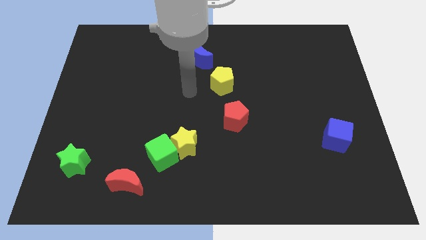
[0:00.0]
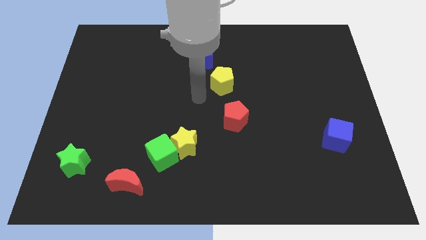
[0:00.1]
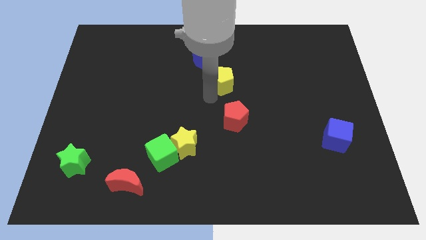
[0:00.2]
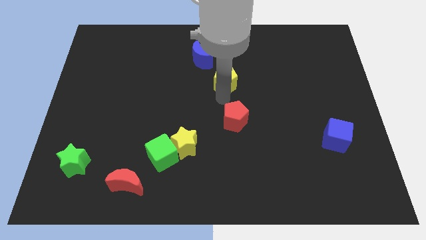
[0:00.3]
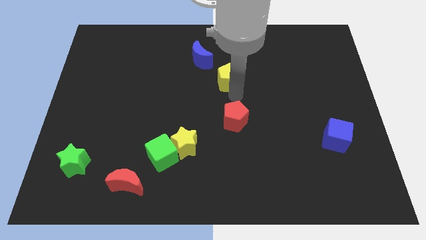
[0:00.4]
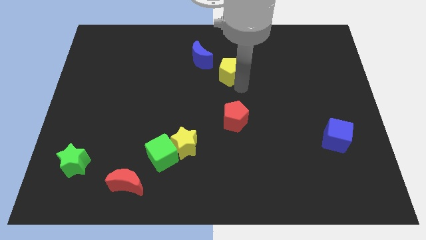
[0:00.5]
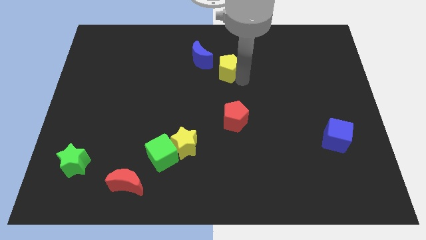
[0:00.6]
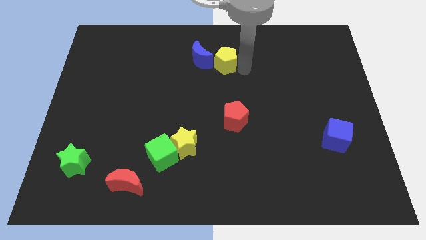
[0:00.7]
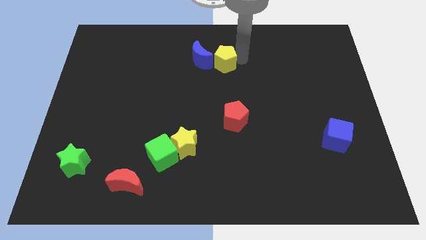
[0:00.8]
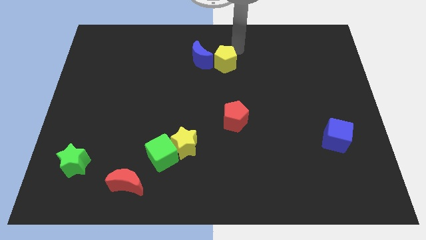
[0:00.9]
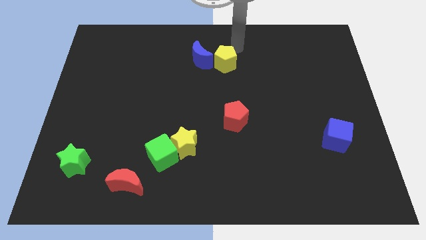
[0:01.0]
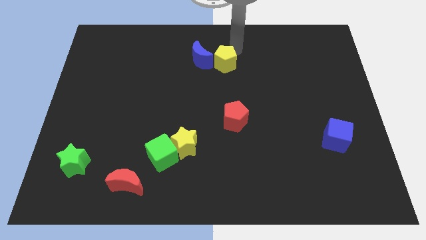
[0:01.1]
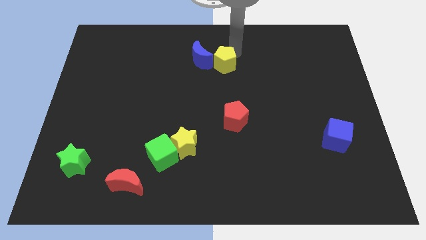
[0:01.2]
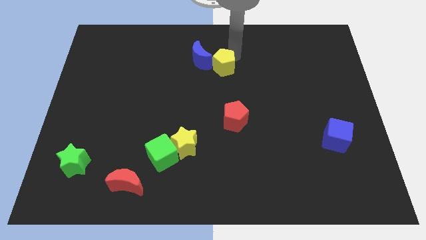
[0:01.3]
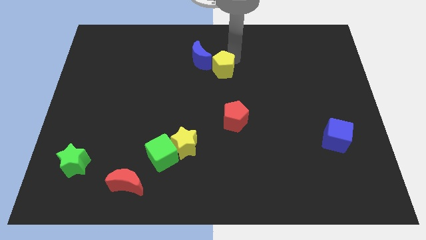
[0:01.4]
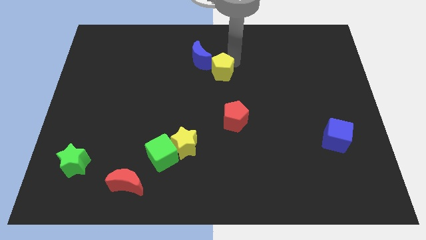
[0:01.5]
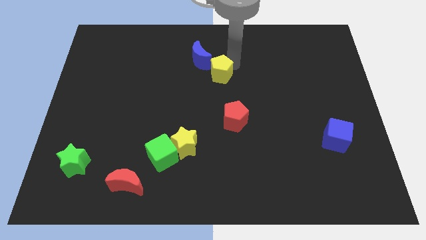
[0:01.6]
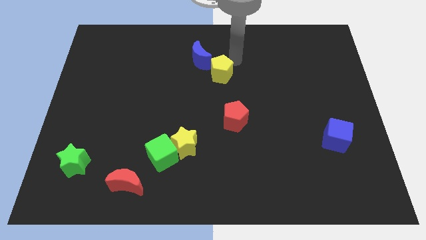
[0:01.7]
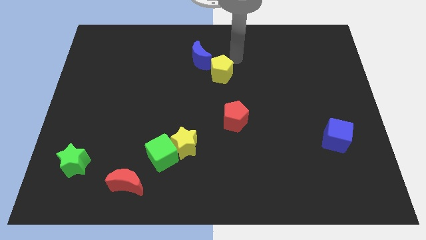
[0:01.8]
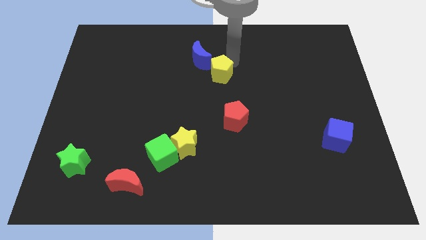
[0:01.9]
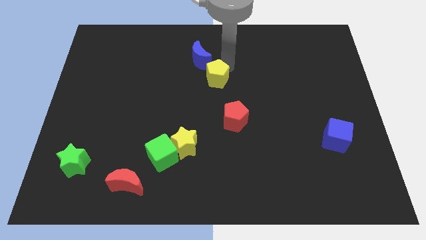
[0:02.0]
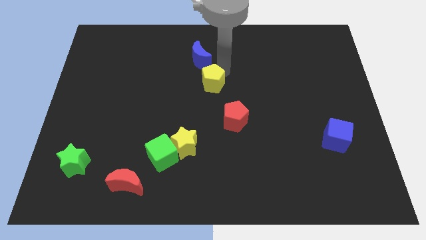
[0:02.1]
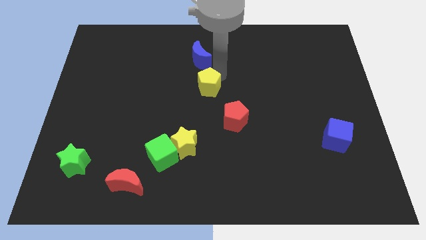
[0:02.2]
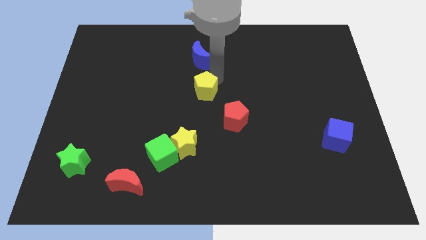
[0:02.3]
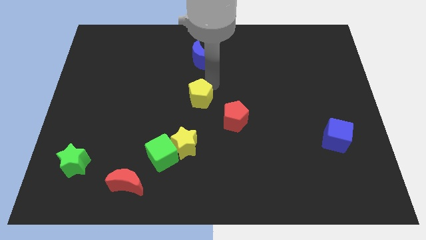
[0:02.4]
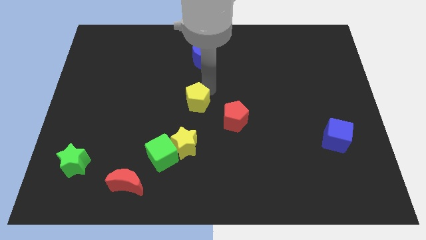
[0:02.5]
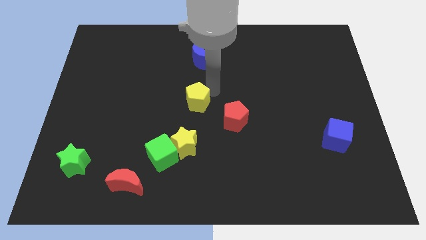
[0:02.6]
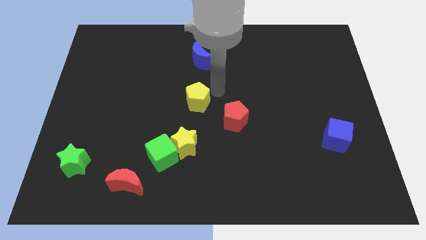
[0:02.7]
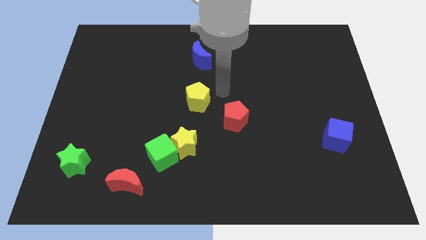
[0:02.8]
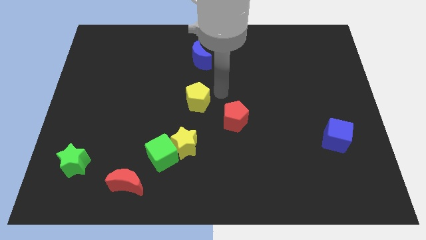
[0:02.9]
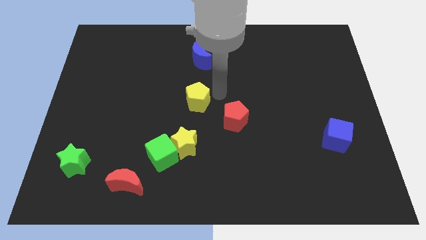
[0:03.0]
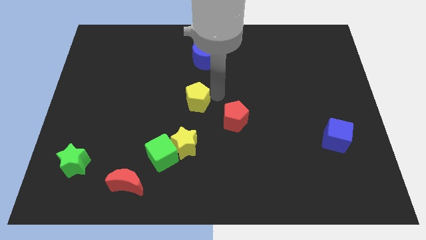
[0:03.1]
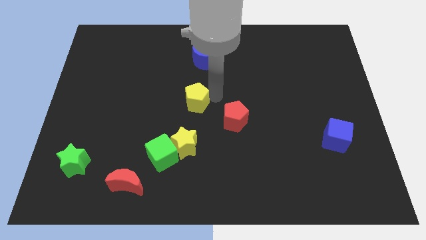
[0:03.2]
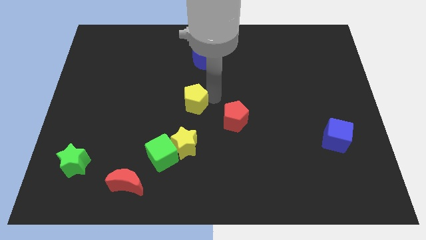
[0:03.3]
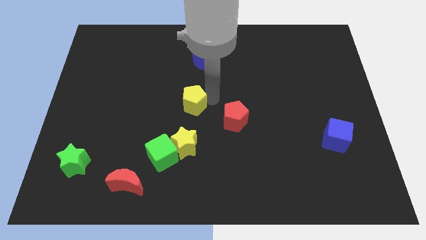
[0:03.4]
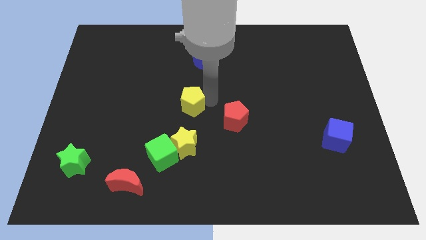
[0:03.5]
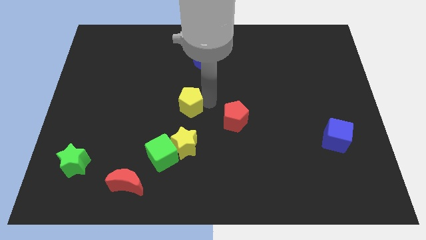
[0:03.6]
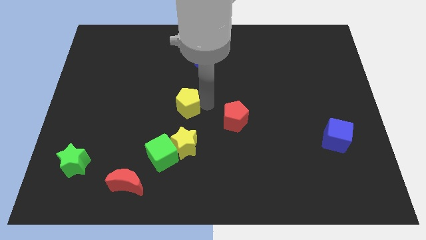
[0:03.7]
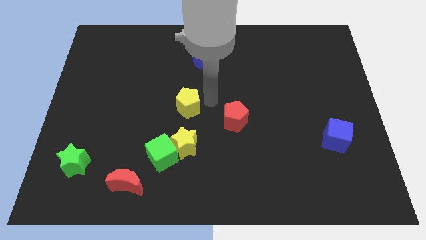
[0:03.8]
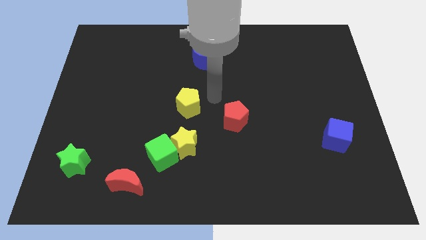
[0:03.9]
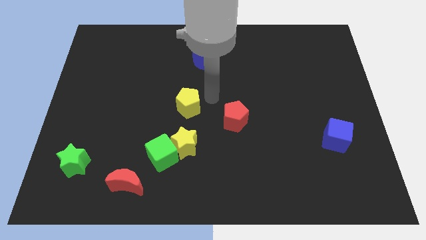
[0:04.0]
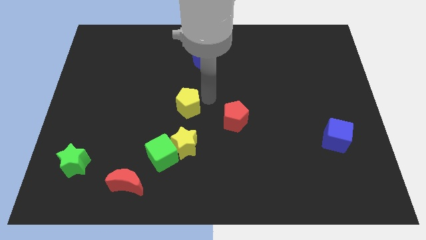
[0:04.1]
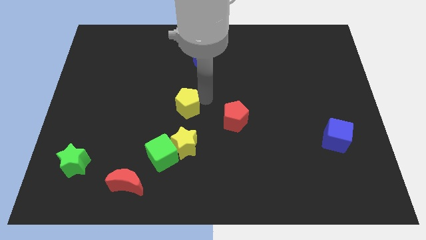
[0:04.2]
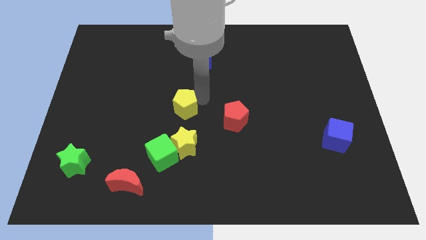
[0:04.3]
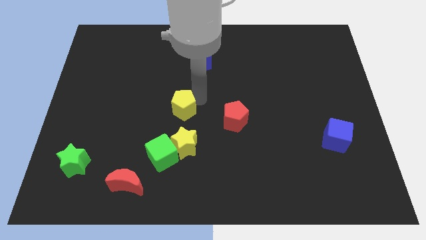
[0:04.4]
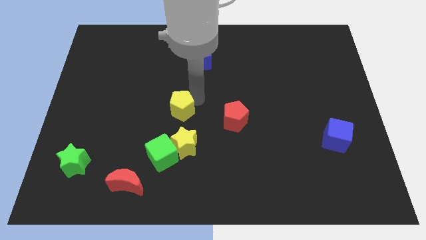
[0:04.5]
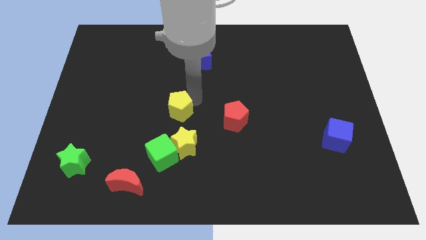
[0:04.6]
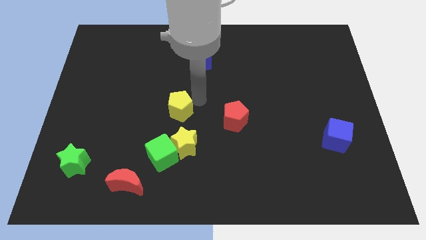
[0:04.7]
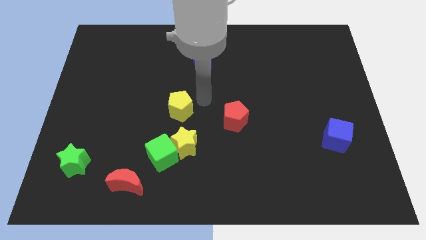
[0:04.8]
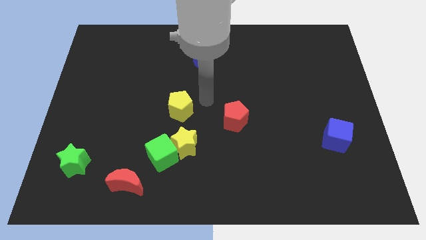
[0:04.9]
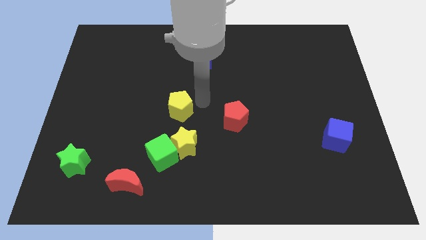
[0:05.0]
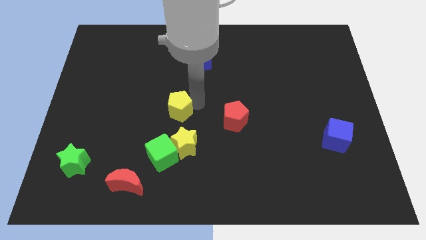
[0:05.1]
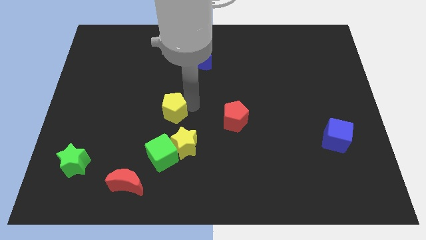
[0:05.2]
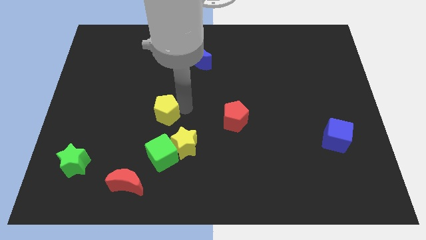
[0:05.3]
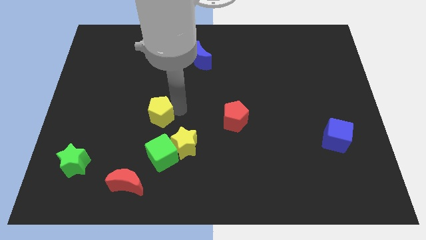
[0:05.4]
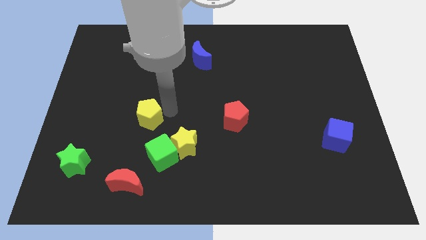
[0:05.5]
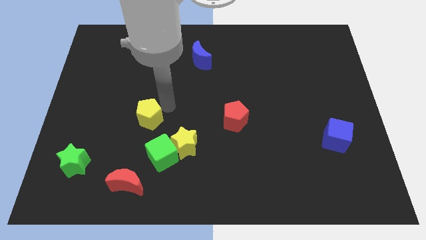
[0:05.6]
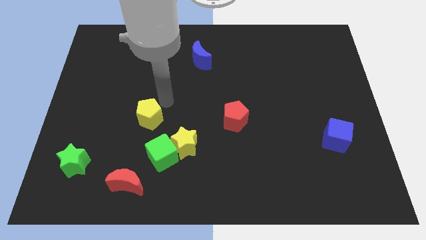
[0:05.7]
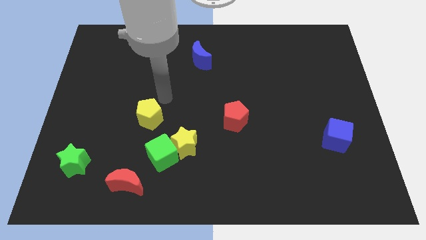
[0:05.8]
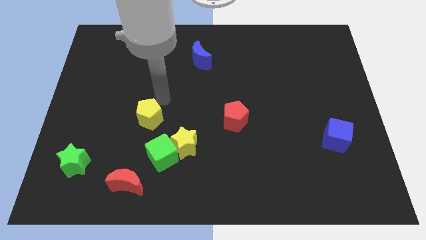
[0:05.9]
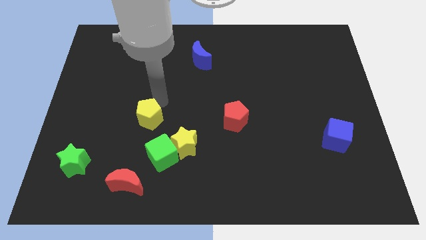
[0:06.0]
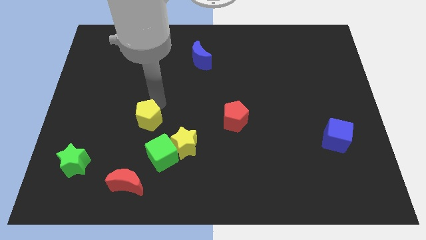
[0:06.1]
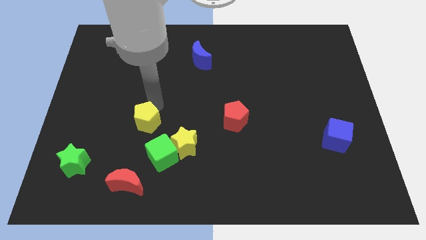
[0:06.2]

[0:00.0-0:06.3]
slide the yellow pentagon to the top of the red moon

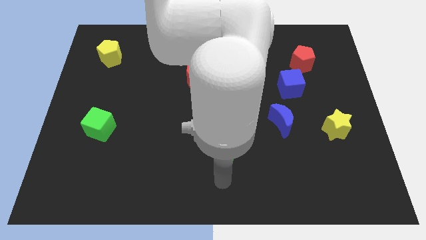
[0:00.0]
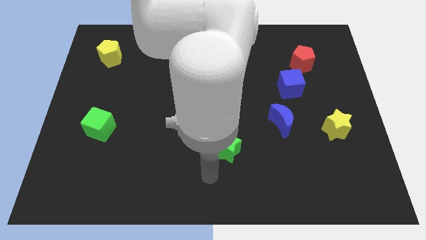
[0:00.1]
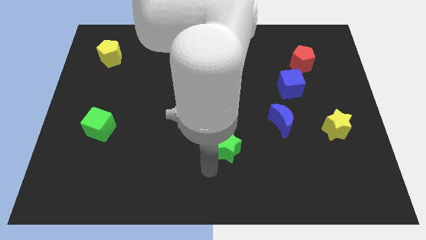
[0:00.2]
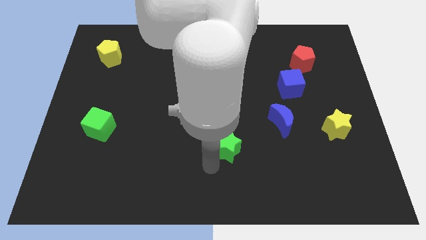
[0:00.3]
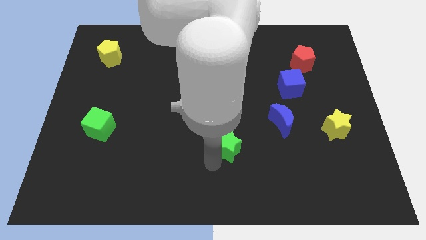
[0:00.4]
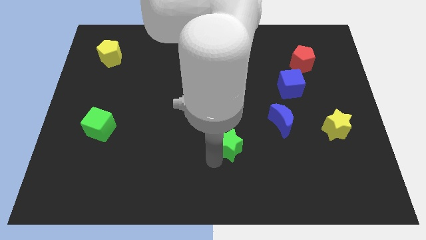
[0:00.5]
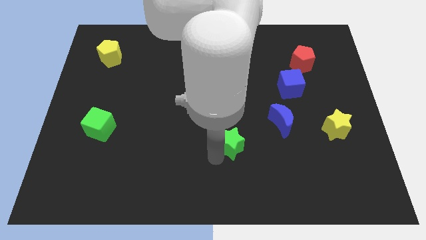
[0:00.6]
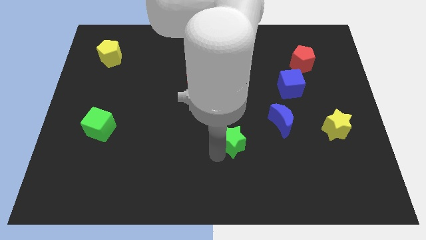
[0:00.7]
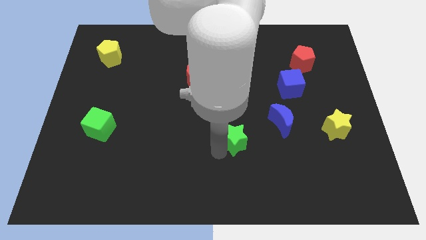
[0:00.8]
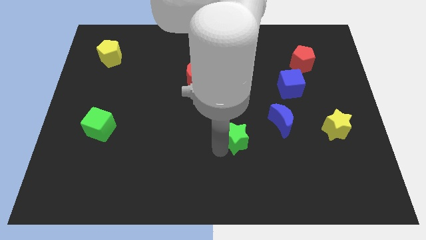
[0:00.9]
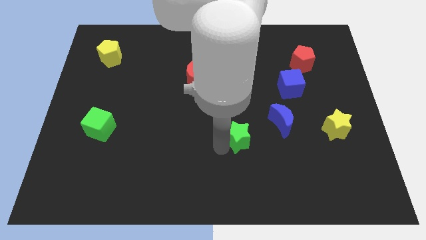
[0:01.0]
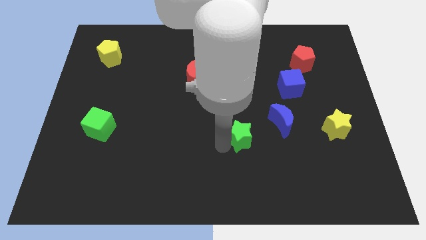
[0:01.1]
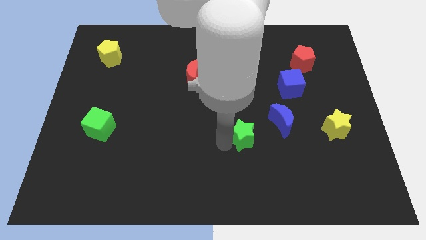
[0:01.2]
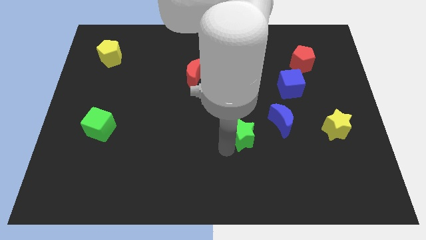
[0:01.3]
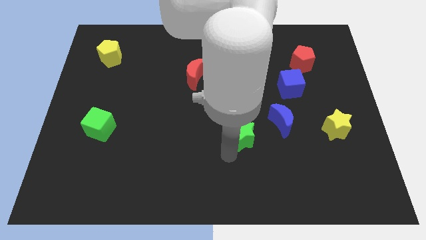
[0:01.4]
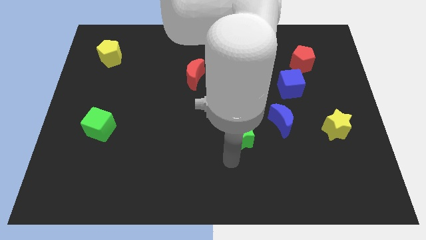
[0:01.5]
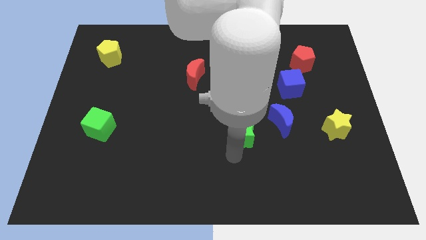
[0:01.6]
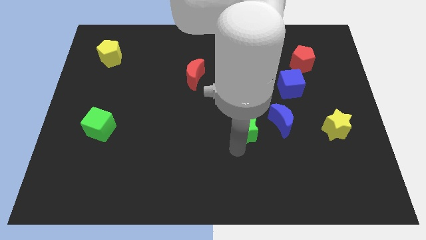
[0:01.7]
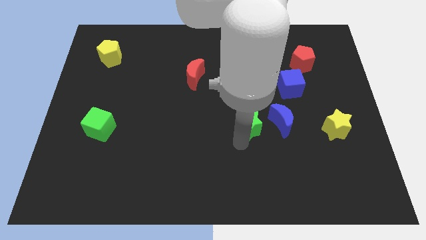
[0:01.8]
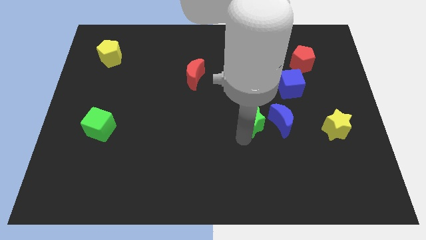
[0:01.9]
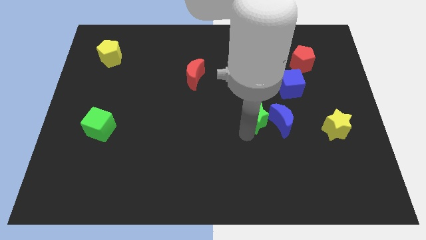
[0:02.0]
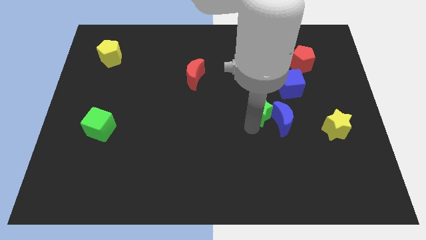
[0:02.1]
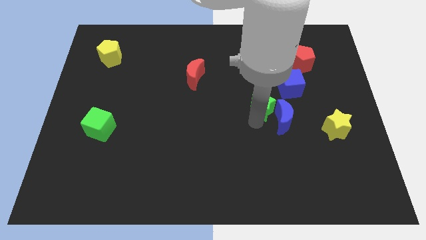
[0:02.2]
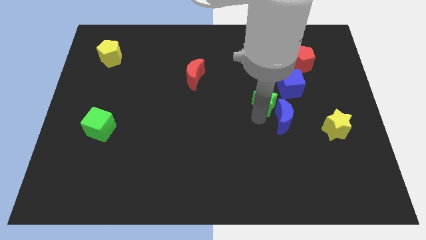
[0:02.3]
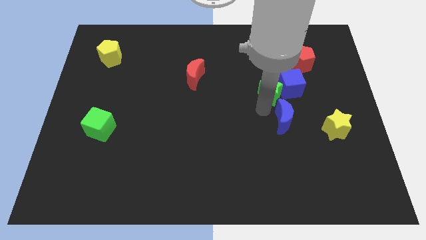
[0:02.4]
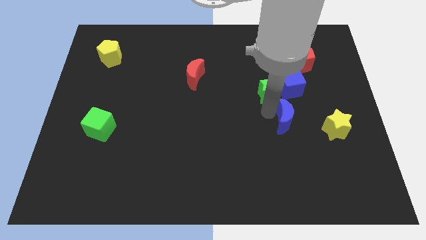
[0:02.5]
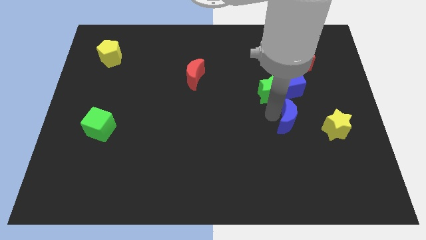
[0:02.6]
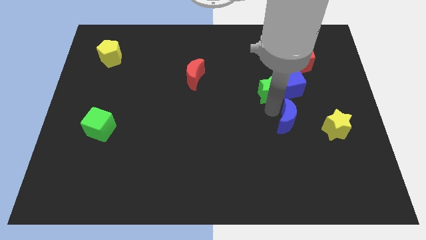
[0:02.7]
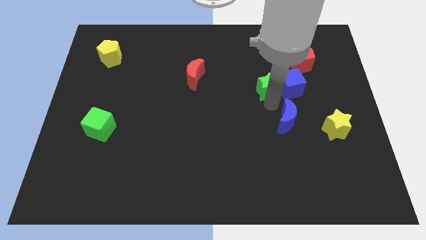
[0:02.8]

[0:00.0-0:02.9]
put the green star to the top left of the blue cube
